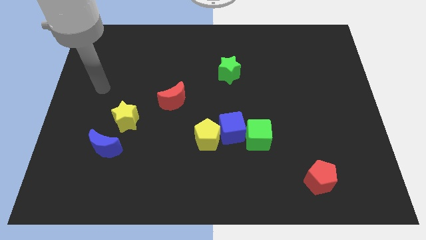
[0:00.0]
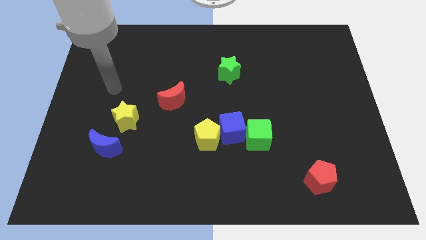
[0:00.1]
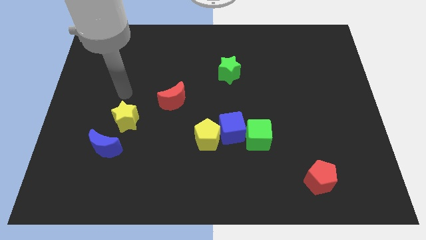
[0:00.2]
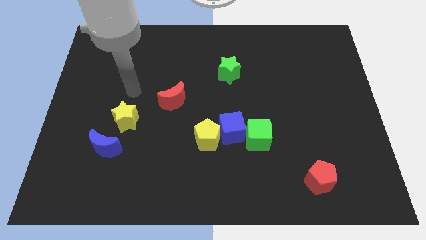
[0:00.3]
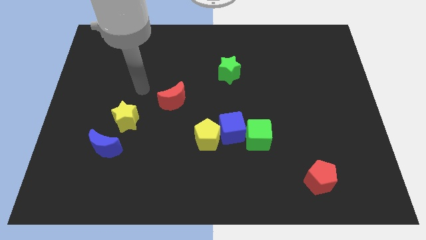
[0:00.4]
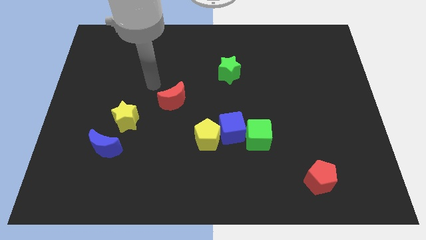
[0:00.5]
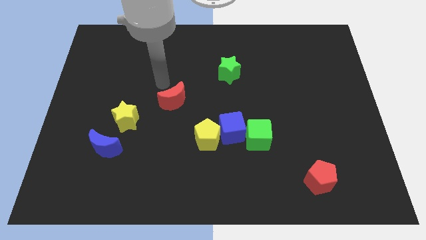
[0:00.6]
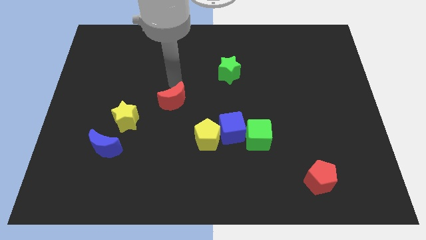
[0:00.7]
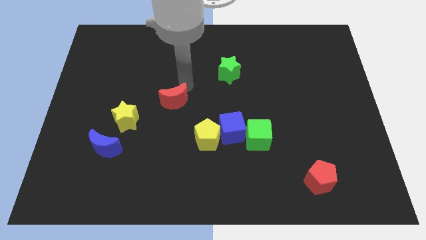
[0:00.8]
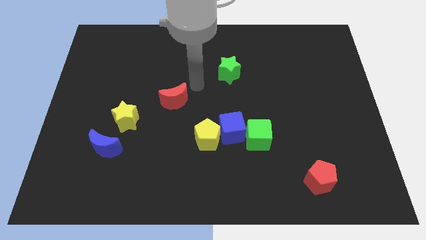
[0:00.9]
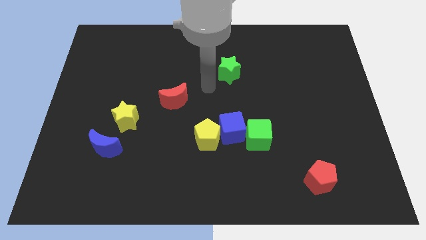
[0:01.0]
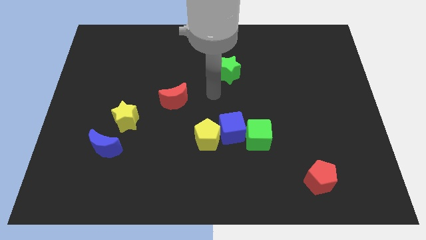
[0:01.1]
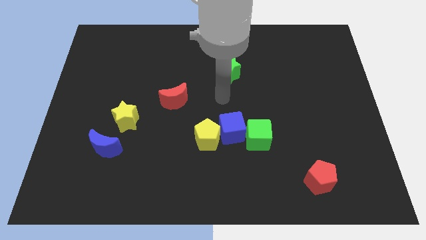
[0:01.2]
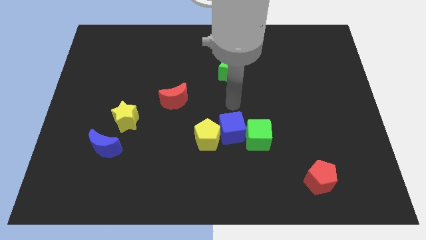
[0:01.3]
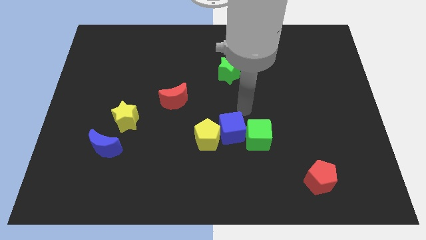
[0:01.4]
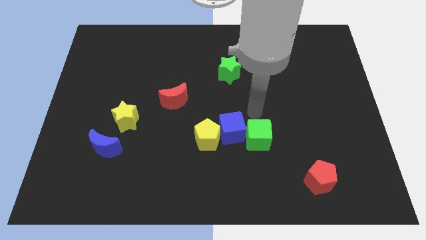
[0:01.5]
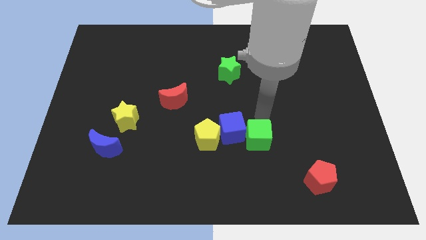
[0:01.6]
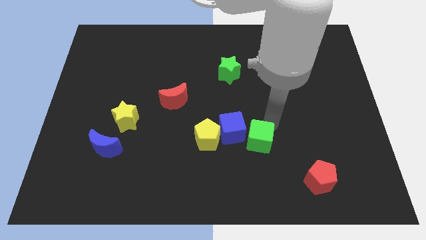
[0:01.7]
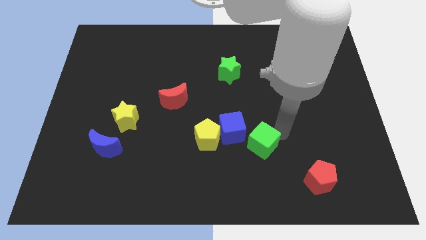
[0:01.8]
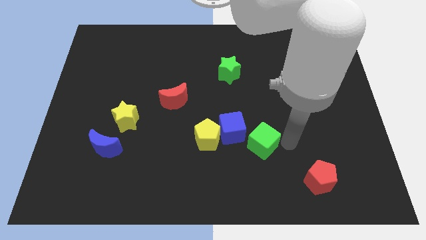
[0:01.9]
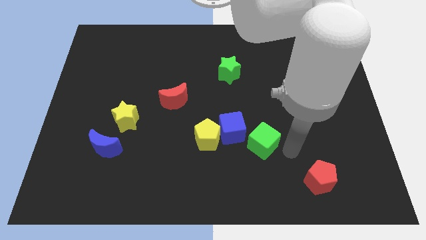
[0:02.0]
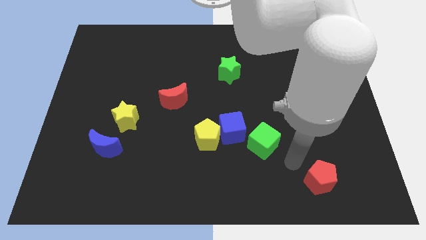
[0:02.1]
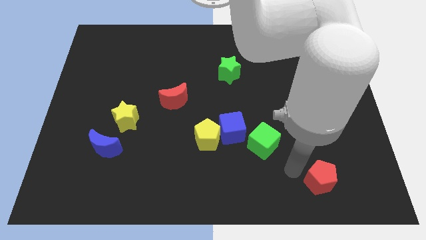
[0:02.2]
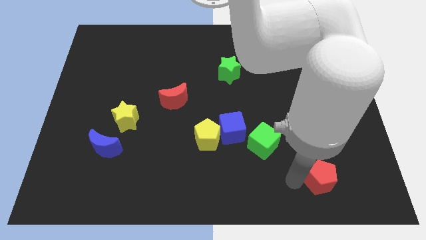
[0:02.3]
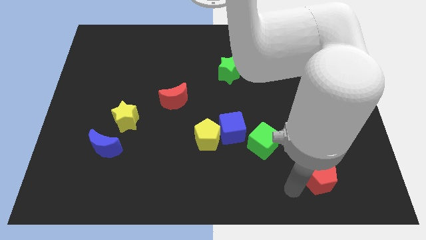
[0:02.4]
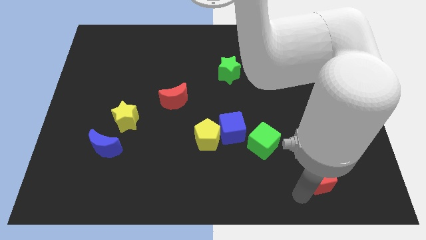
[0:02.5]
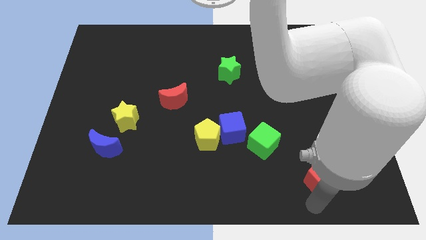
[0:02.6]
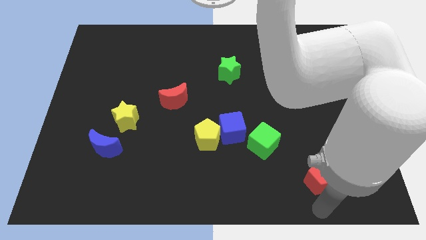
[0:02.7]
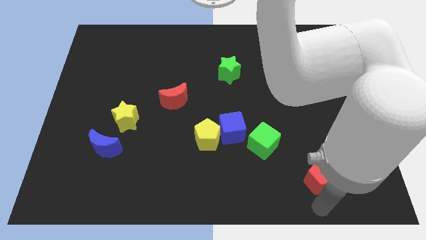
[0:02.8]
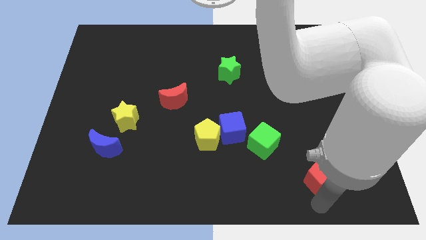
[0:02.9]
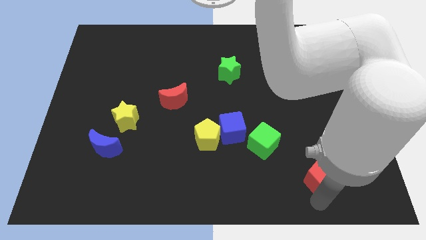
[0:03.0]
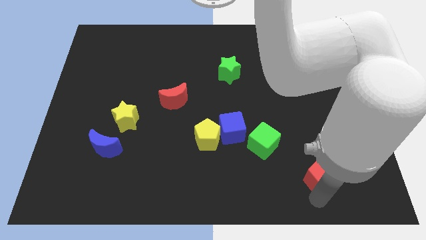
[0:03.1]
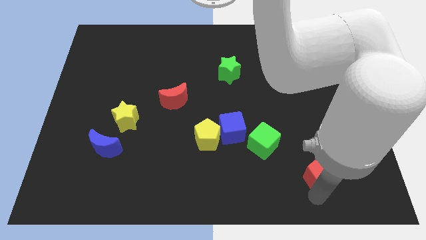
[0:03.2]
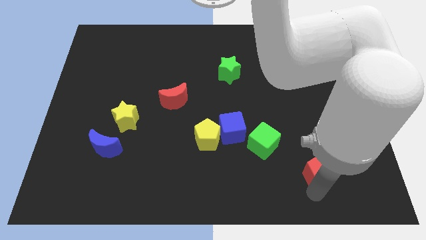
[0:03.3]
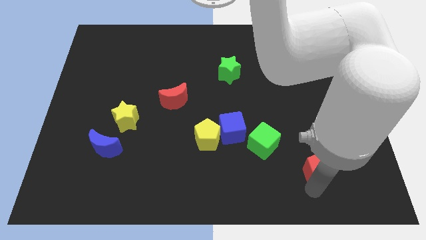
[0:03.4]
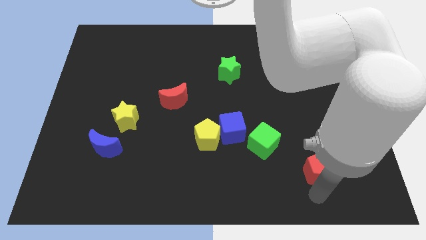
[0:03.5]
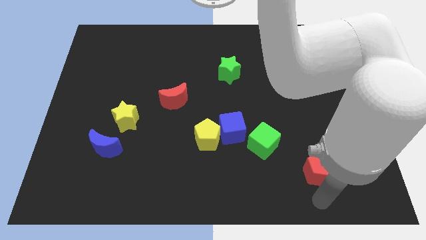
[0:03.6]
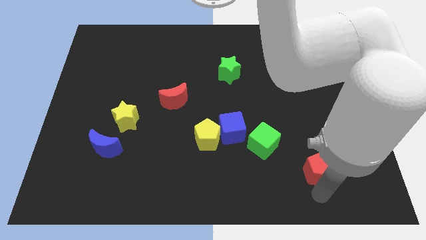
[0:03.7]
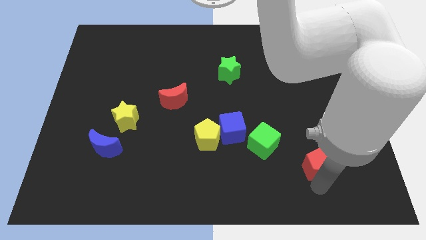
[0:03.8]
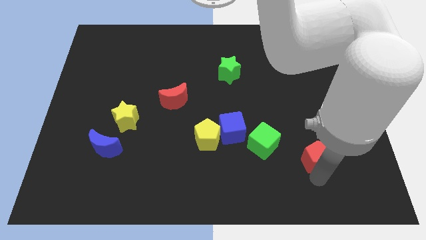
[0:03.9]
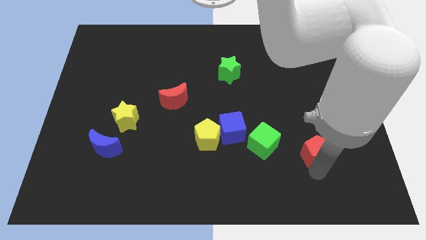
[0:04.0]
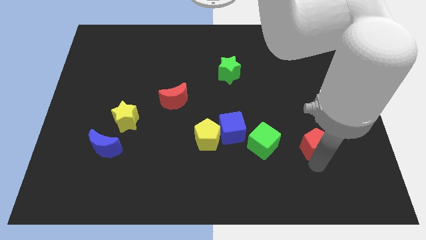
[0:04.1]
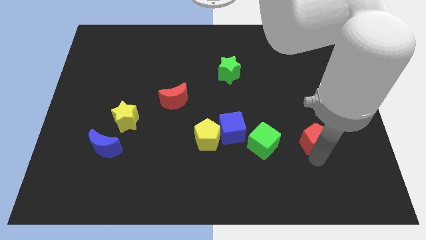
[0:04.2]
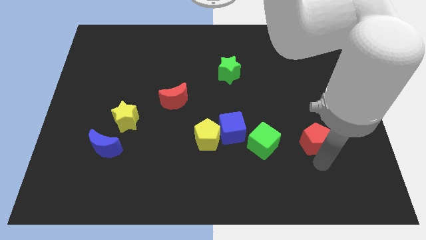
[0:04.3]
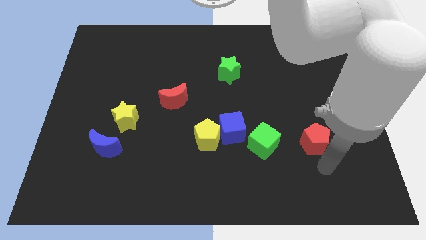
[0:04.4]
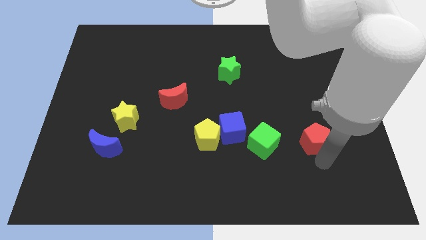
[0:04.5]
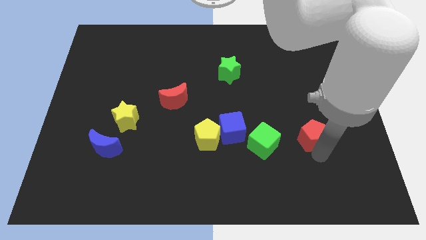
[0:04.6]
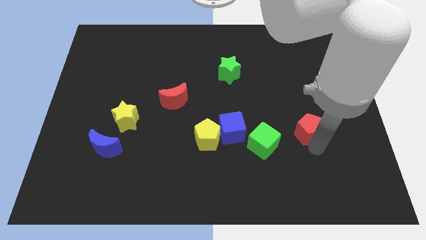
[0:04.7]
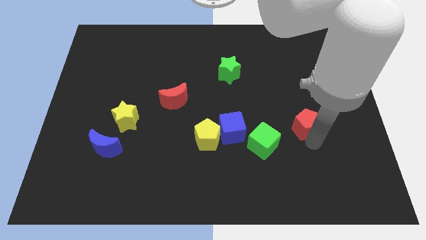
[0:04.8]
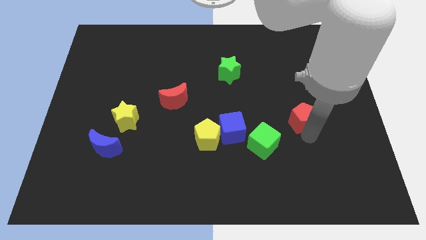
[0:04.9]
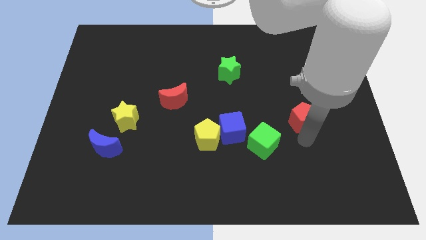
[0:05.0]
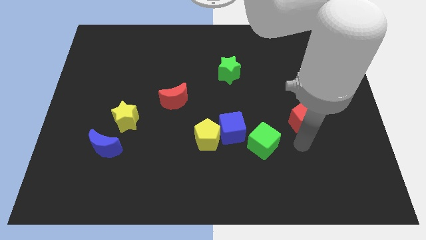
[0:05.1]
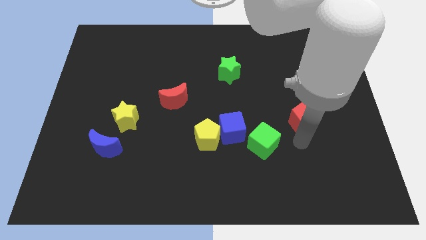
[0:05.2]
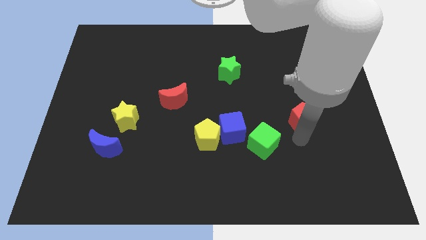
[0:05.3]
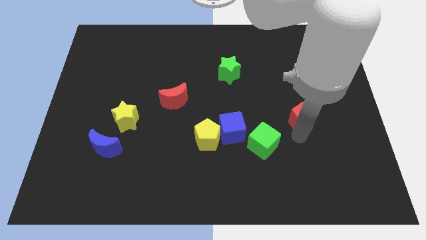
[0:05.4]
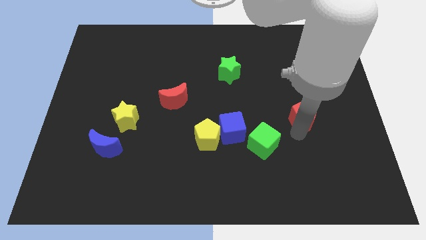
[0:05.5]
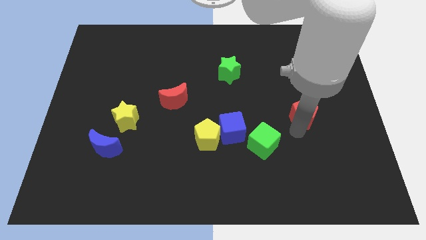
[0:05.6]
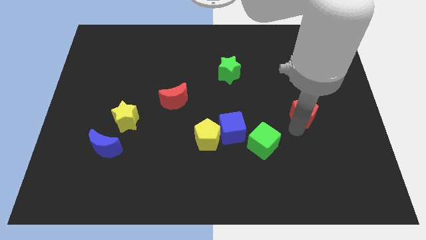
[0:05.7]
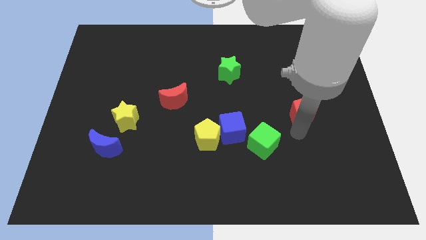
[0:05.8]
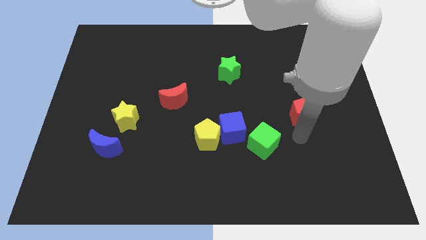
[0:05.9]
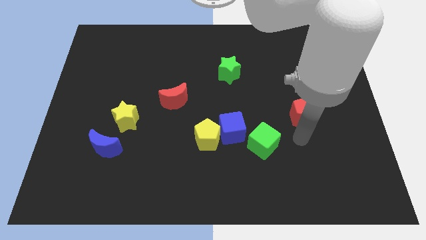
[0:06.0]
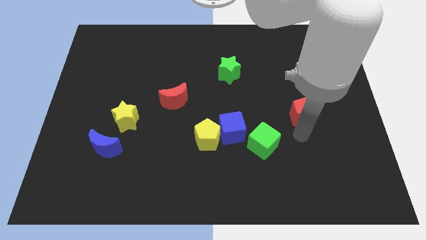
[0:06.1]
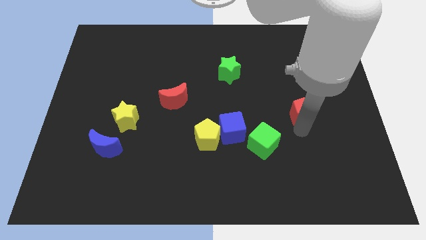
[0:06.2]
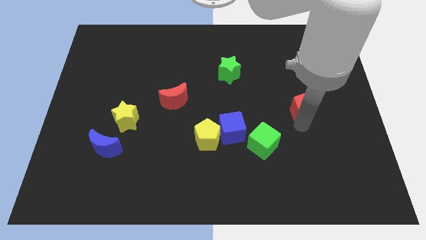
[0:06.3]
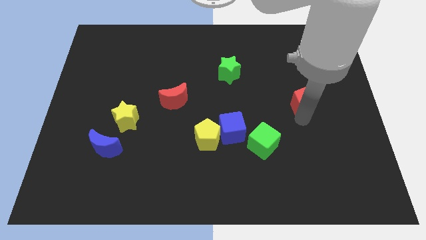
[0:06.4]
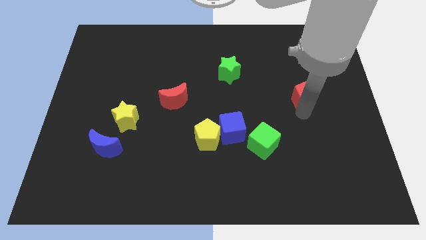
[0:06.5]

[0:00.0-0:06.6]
slide the red pentagon up

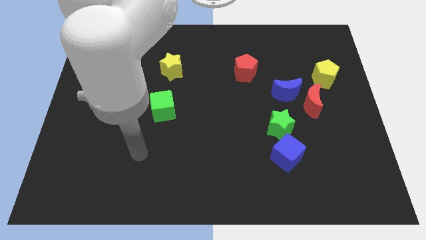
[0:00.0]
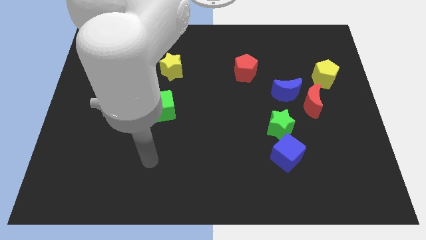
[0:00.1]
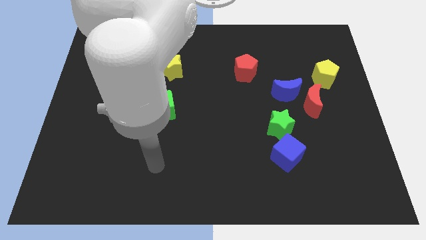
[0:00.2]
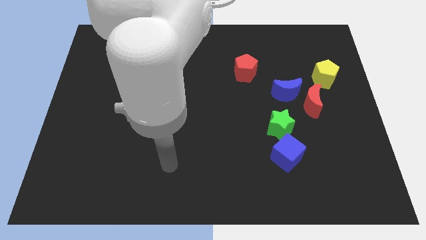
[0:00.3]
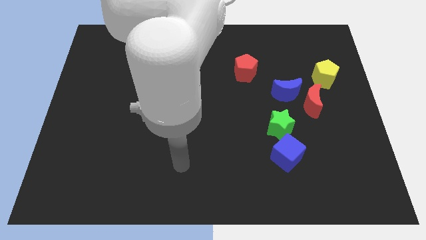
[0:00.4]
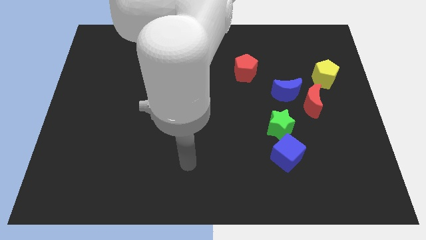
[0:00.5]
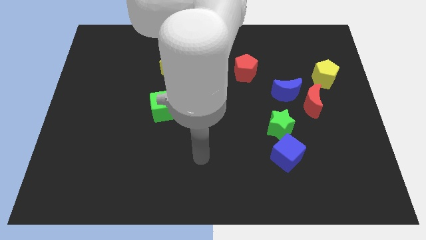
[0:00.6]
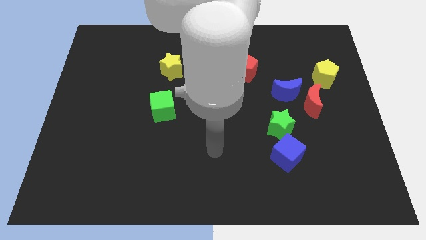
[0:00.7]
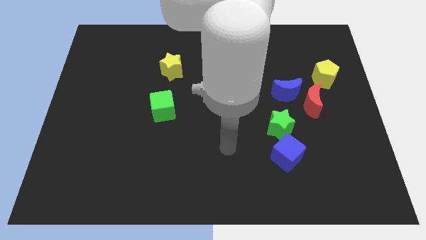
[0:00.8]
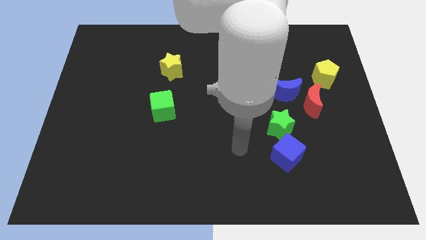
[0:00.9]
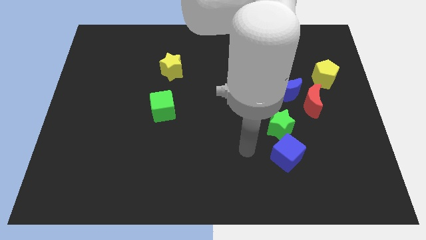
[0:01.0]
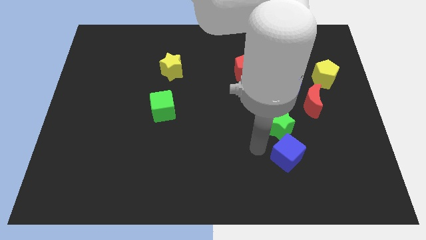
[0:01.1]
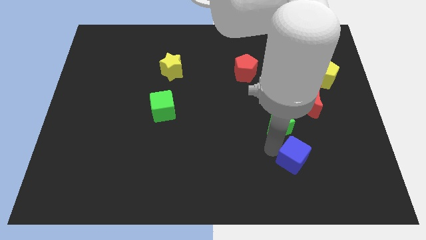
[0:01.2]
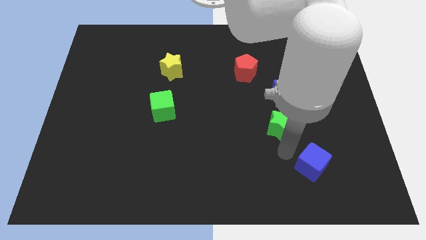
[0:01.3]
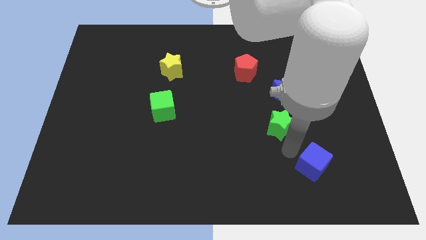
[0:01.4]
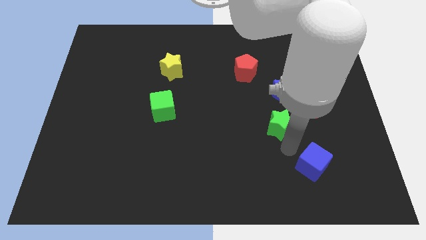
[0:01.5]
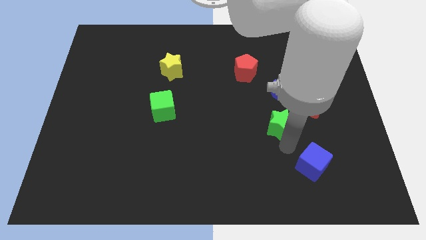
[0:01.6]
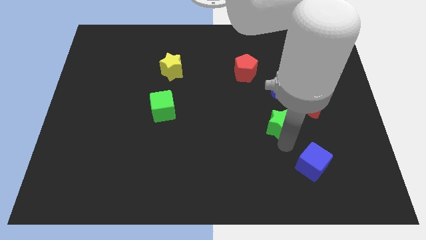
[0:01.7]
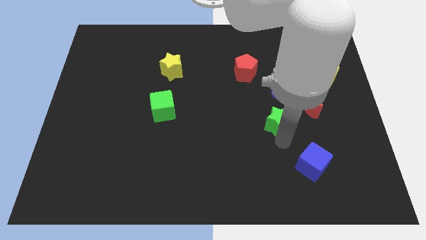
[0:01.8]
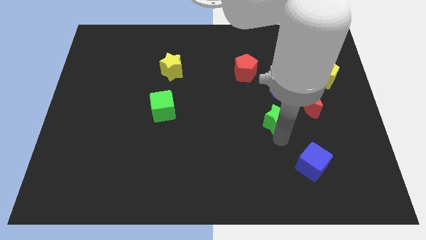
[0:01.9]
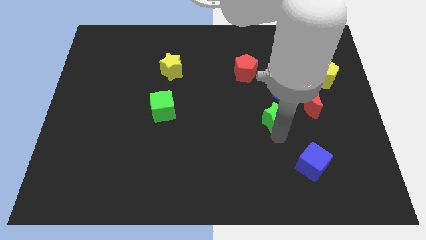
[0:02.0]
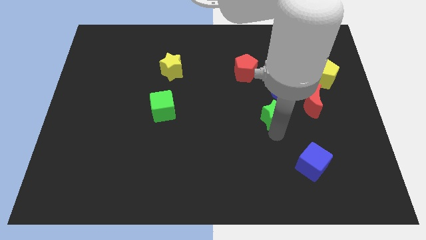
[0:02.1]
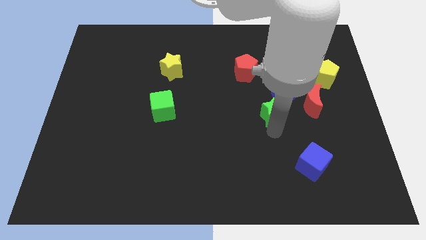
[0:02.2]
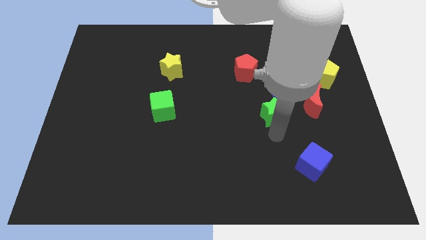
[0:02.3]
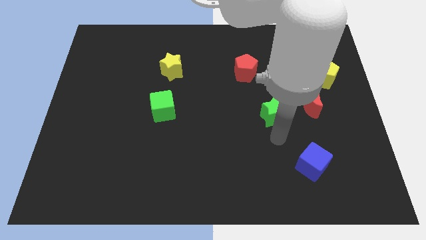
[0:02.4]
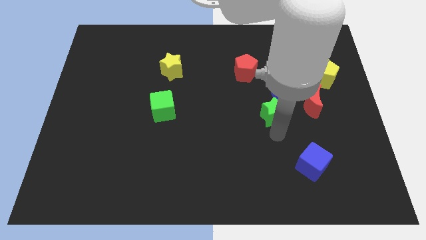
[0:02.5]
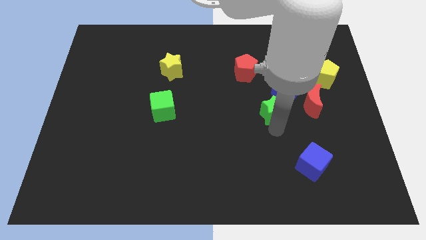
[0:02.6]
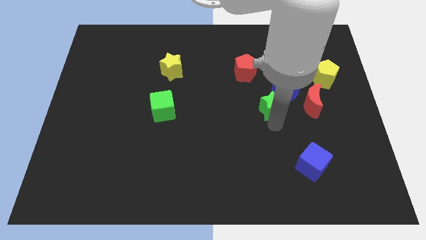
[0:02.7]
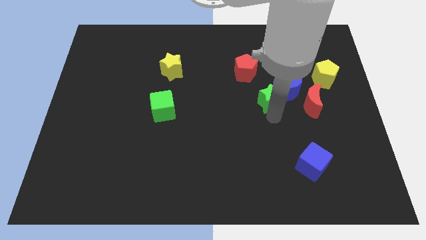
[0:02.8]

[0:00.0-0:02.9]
slightly move the green star upwards
